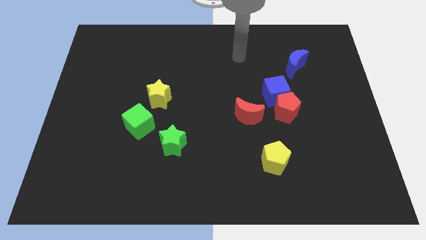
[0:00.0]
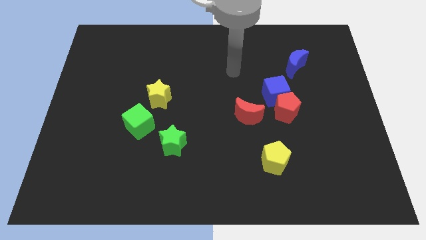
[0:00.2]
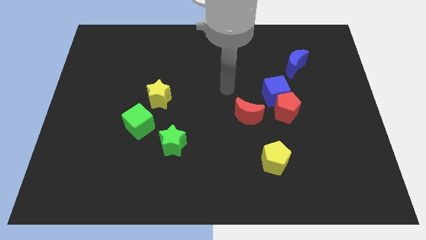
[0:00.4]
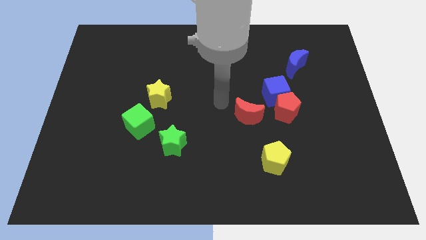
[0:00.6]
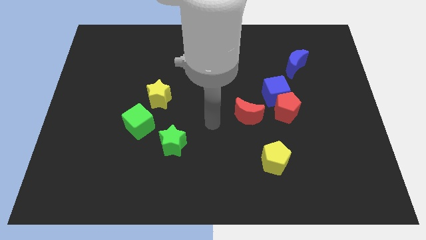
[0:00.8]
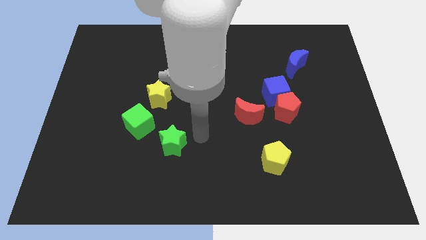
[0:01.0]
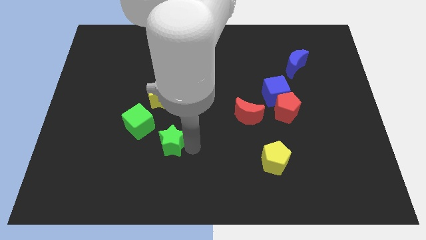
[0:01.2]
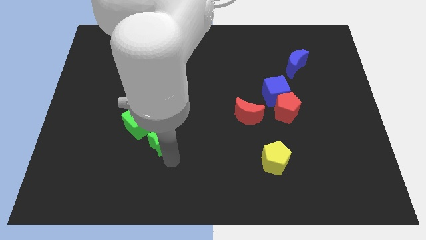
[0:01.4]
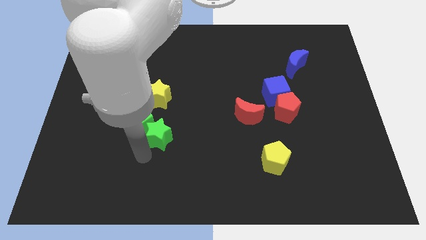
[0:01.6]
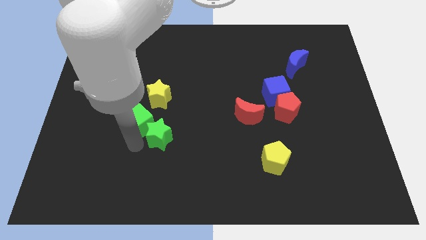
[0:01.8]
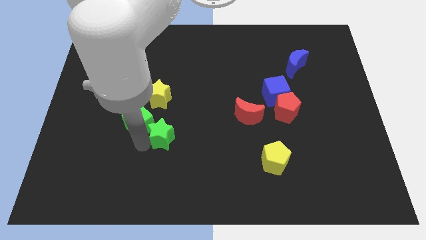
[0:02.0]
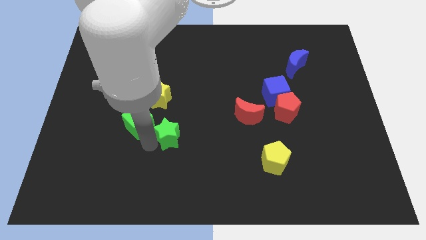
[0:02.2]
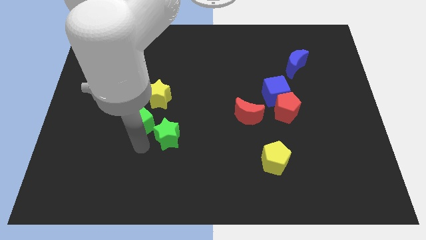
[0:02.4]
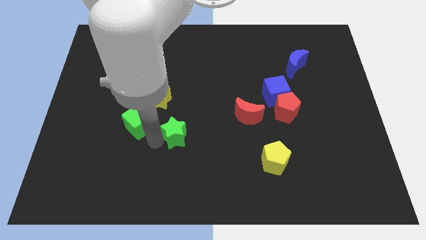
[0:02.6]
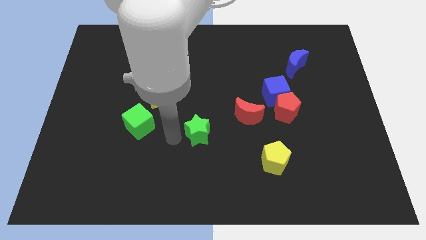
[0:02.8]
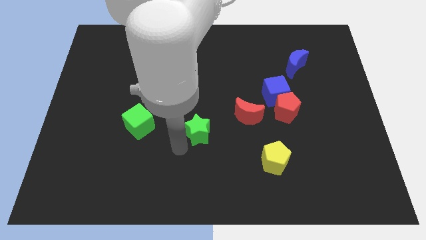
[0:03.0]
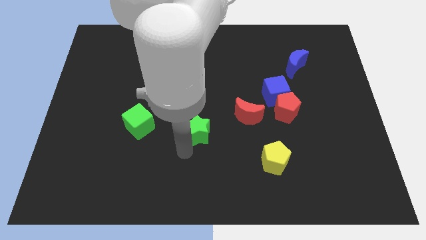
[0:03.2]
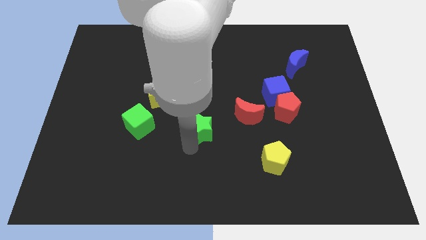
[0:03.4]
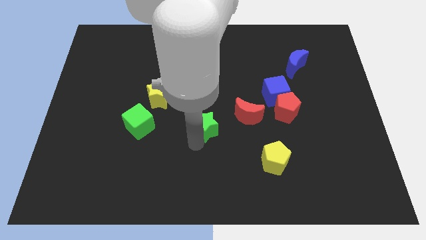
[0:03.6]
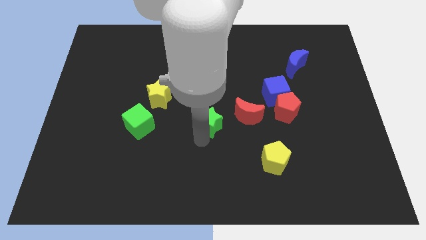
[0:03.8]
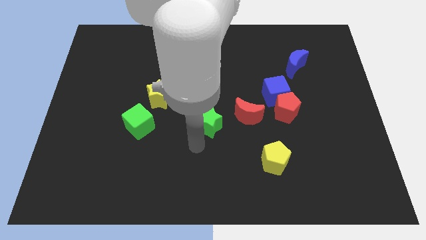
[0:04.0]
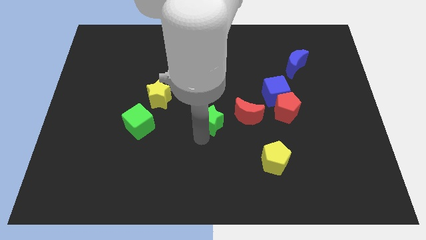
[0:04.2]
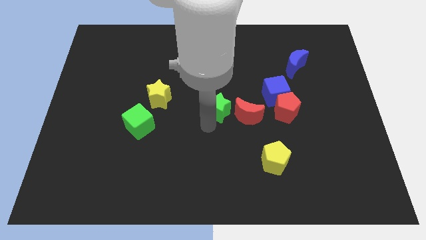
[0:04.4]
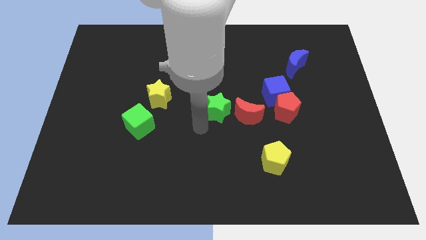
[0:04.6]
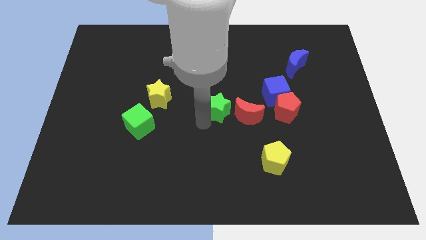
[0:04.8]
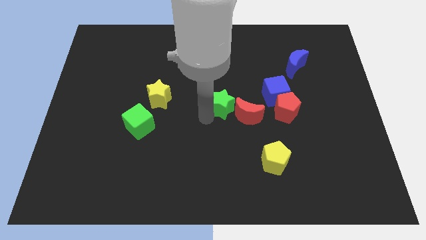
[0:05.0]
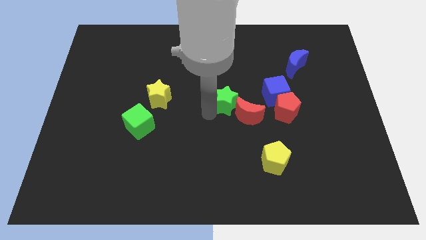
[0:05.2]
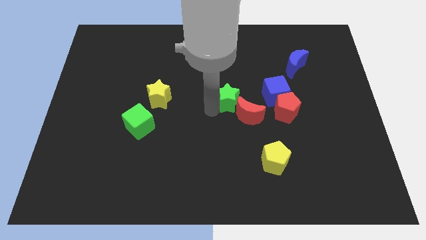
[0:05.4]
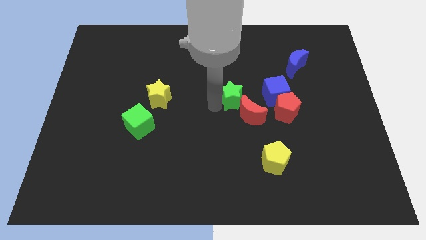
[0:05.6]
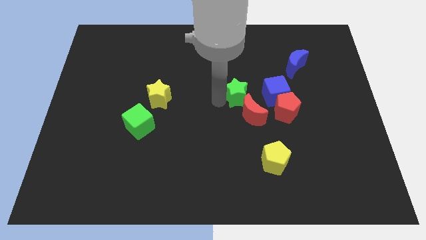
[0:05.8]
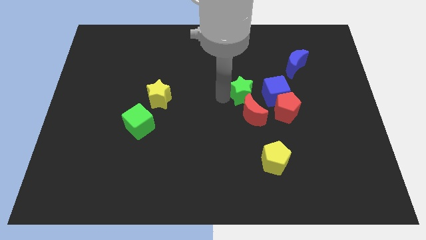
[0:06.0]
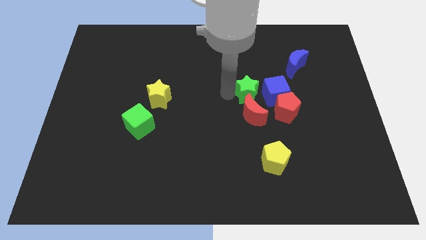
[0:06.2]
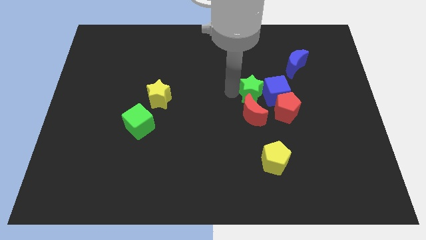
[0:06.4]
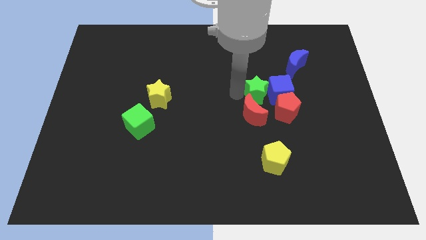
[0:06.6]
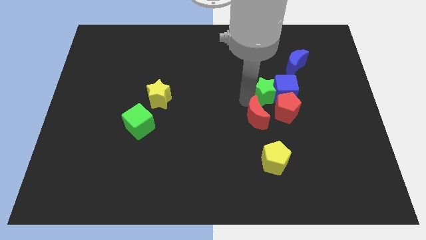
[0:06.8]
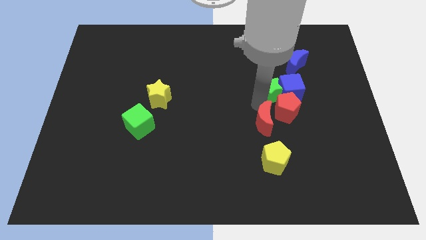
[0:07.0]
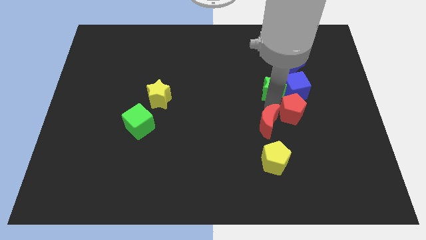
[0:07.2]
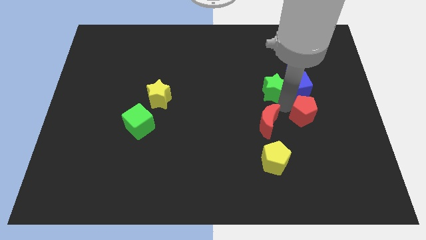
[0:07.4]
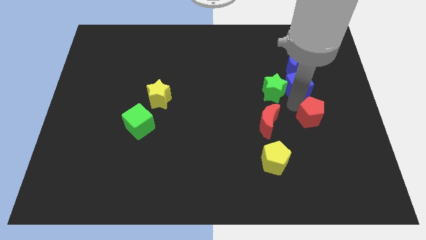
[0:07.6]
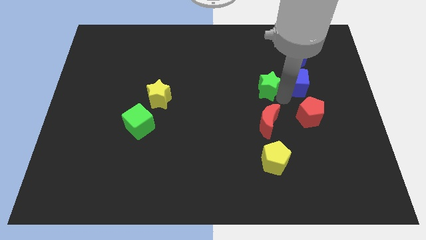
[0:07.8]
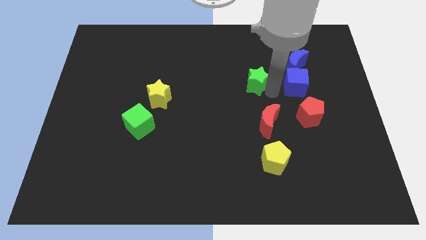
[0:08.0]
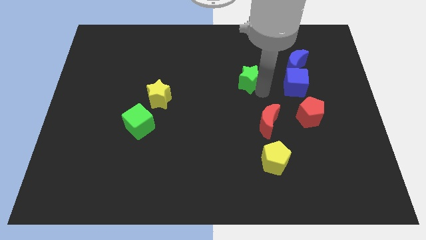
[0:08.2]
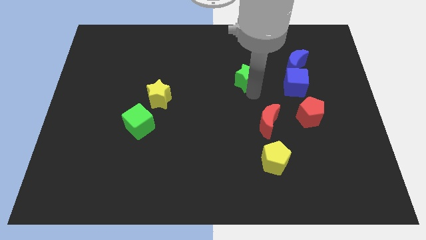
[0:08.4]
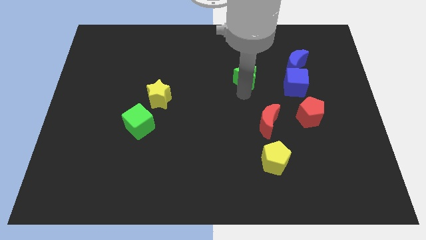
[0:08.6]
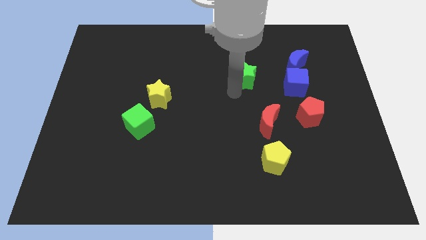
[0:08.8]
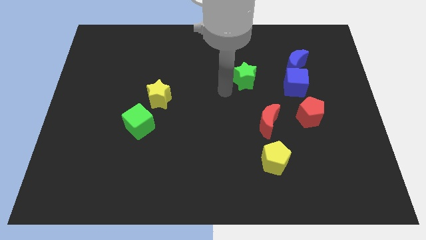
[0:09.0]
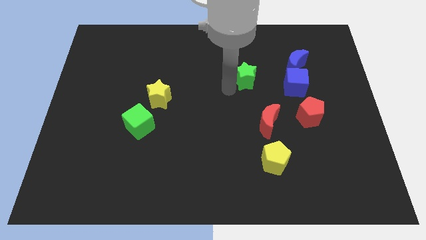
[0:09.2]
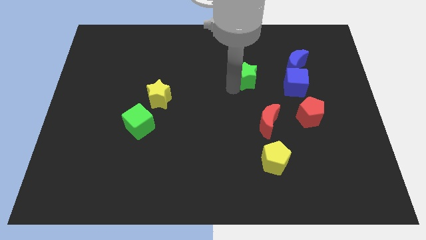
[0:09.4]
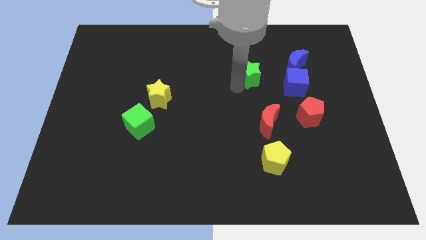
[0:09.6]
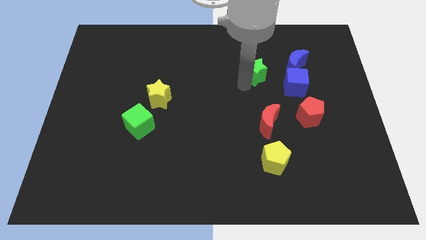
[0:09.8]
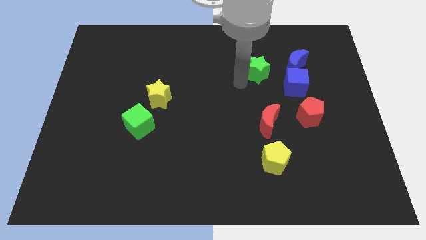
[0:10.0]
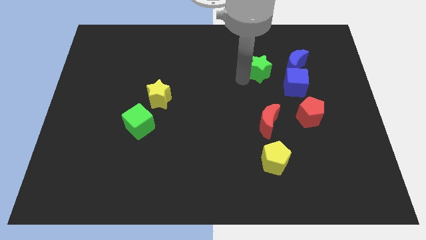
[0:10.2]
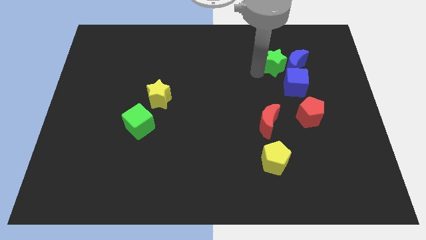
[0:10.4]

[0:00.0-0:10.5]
move the green star to the top side of the blue cube

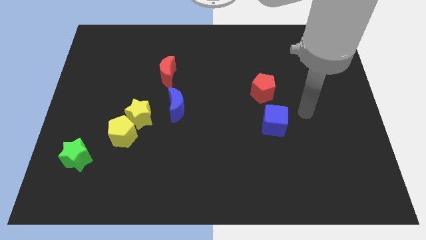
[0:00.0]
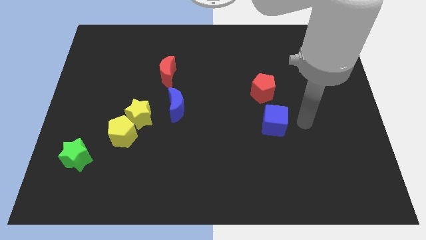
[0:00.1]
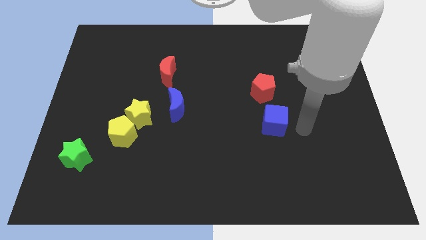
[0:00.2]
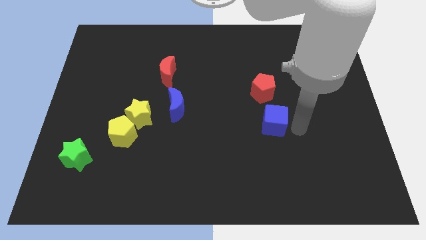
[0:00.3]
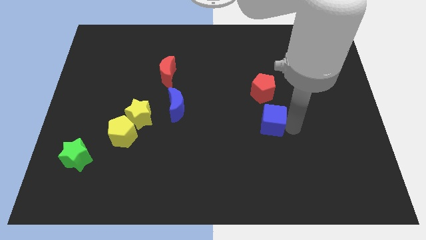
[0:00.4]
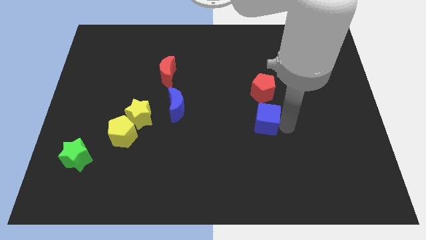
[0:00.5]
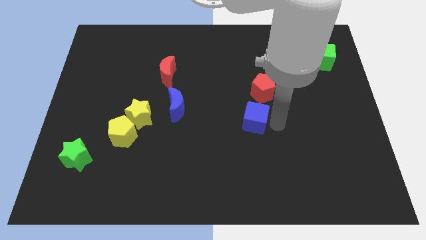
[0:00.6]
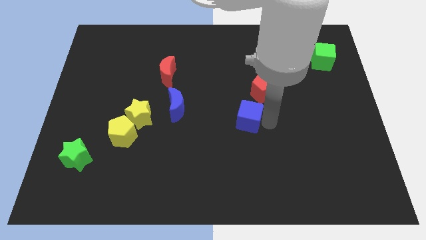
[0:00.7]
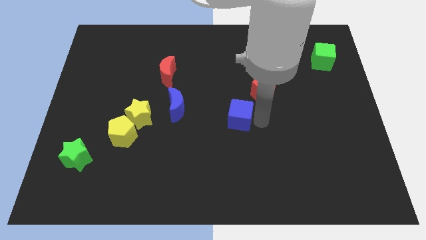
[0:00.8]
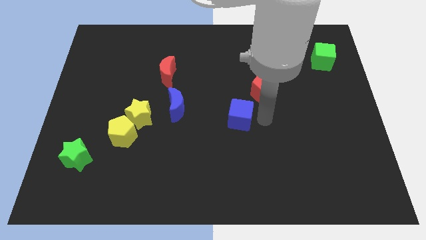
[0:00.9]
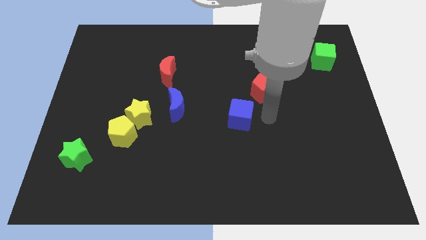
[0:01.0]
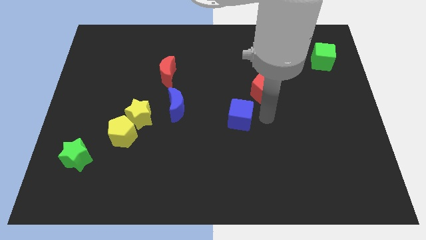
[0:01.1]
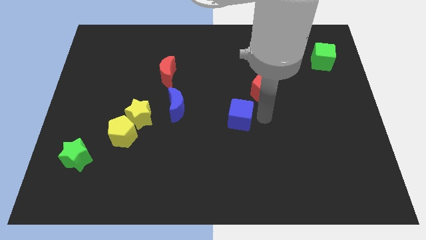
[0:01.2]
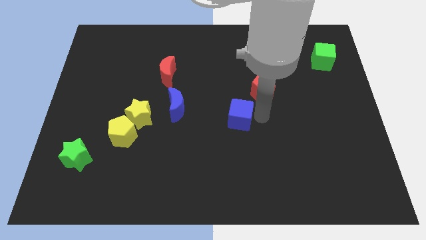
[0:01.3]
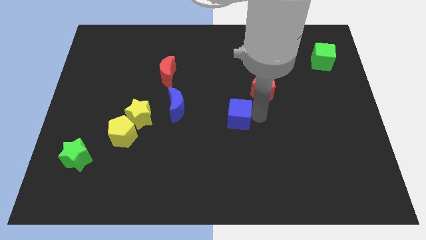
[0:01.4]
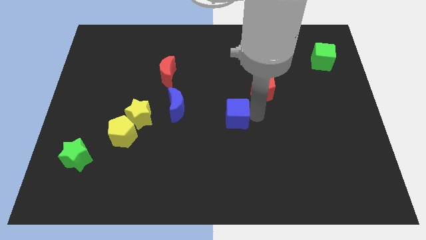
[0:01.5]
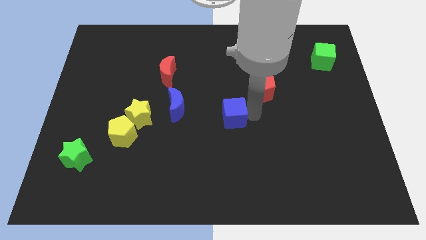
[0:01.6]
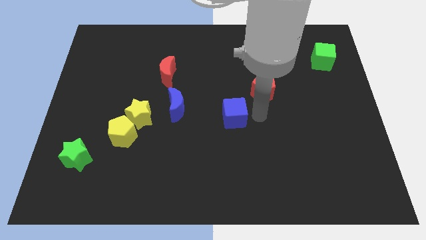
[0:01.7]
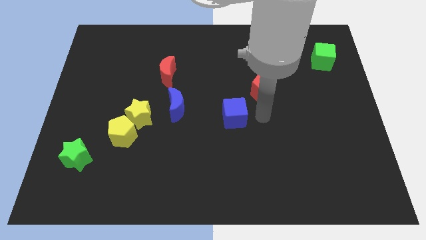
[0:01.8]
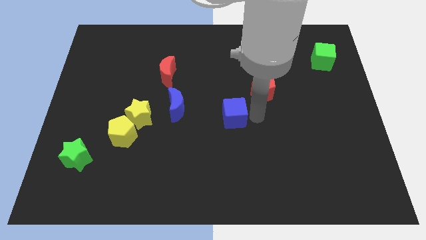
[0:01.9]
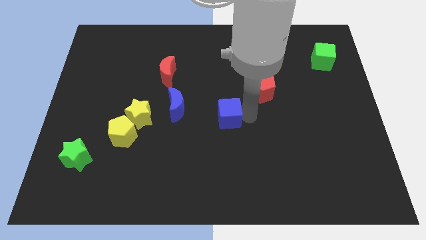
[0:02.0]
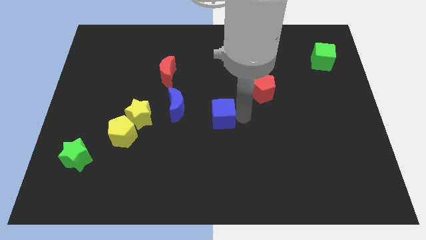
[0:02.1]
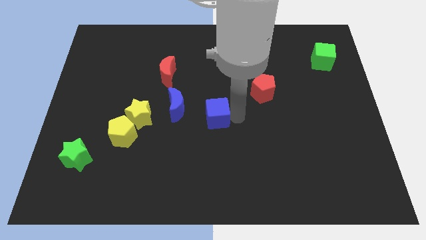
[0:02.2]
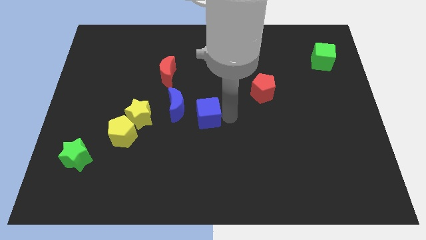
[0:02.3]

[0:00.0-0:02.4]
move the blue cube right of the yellow star
